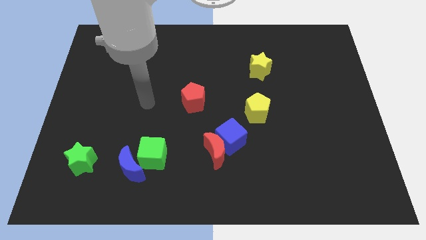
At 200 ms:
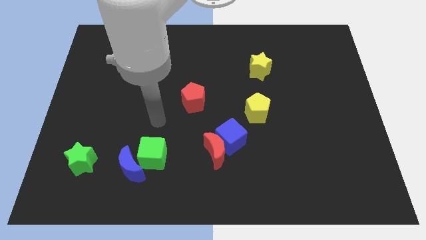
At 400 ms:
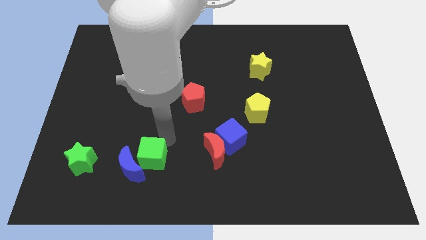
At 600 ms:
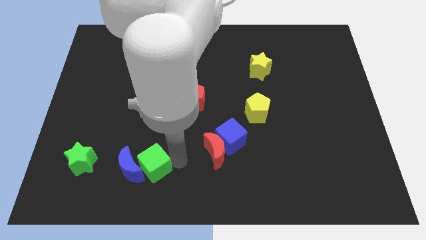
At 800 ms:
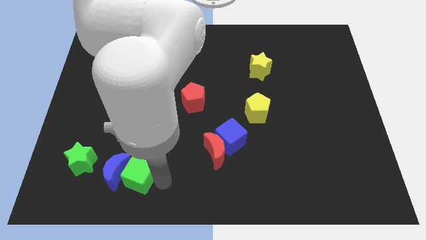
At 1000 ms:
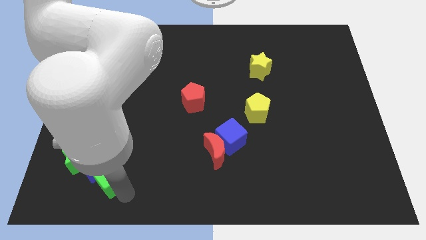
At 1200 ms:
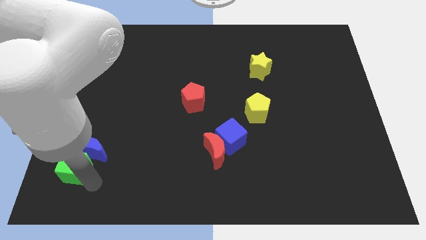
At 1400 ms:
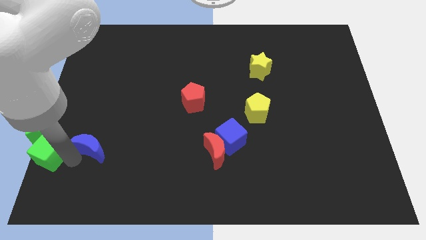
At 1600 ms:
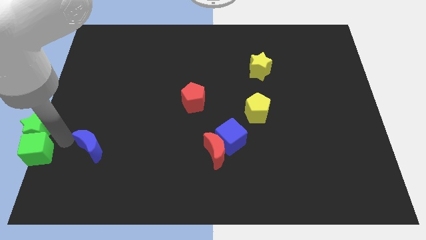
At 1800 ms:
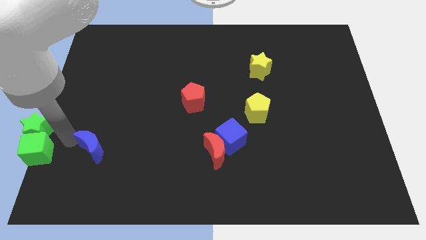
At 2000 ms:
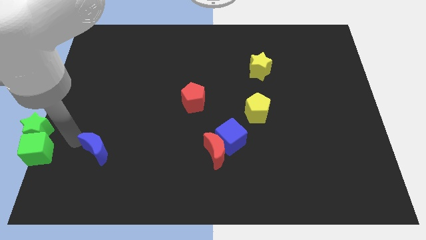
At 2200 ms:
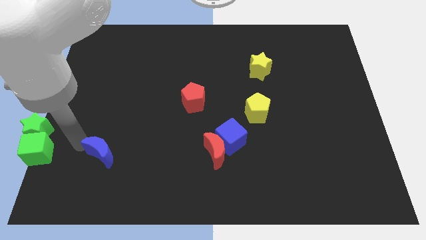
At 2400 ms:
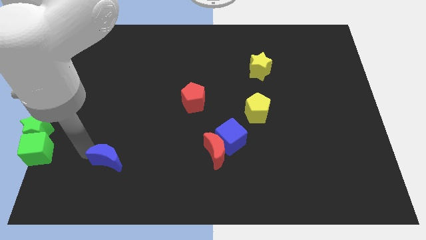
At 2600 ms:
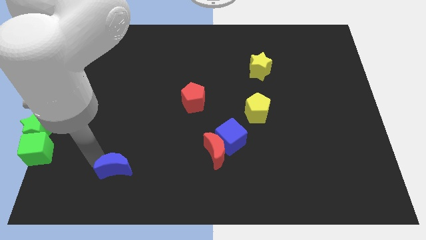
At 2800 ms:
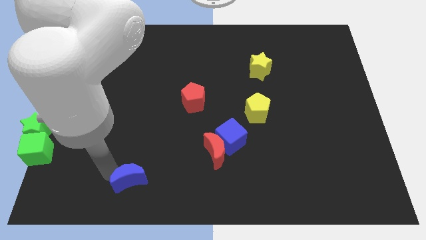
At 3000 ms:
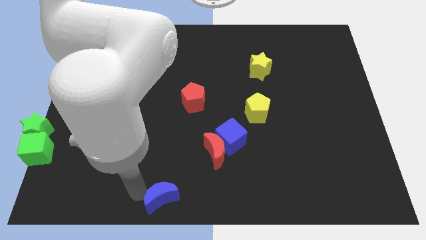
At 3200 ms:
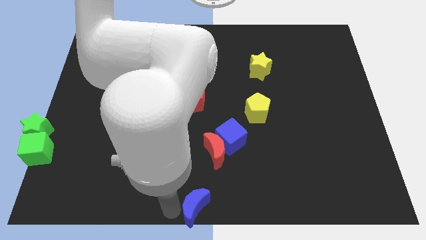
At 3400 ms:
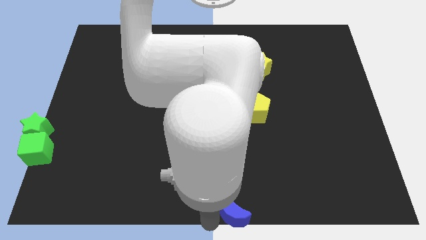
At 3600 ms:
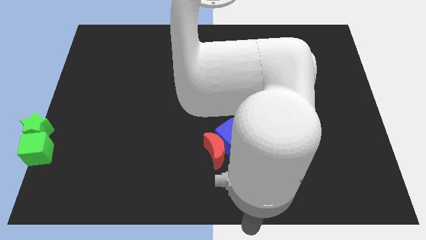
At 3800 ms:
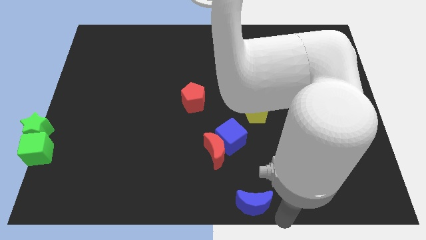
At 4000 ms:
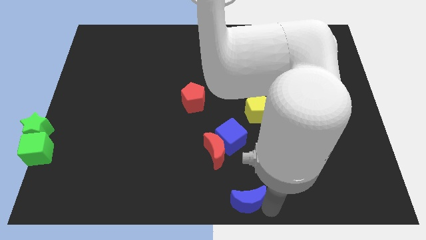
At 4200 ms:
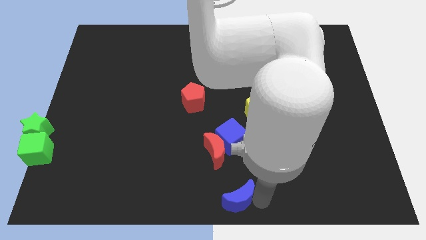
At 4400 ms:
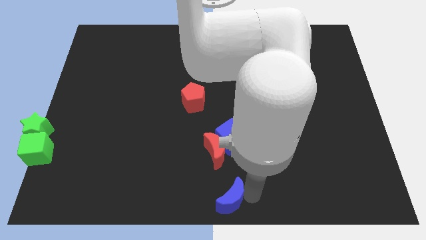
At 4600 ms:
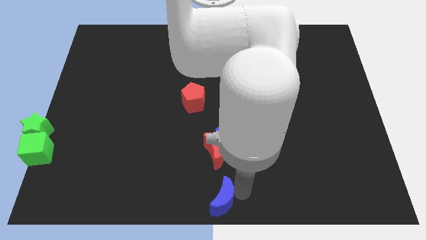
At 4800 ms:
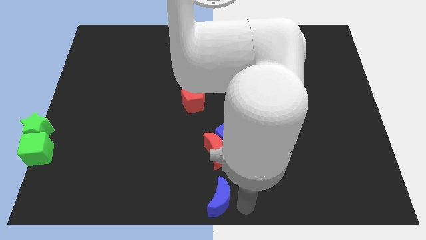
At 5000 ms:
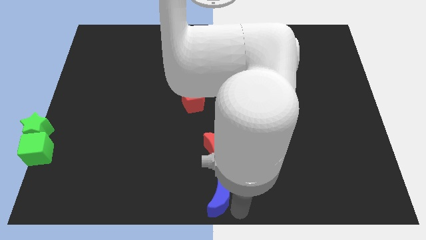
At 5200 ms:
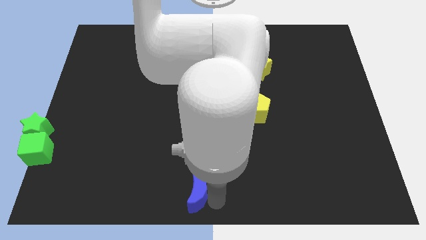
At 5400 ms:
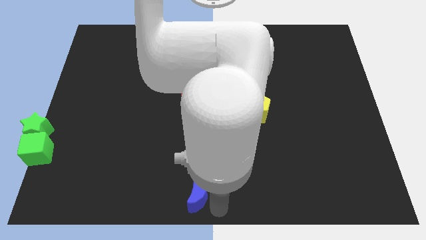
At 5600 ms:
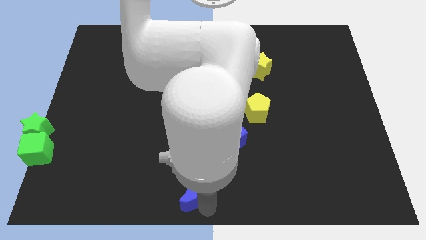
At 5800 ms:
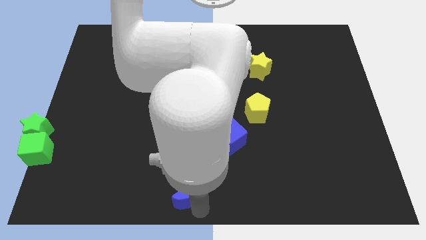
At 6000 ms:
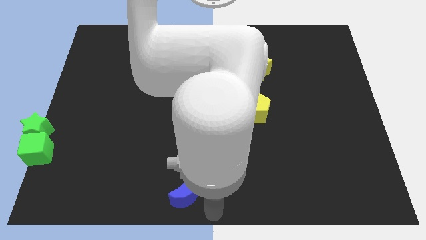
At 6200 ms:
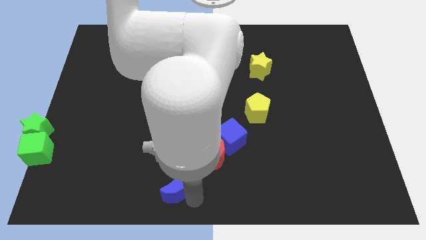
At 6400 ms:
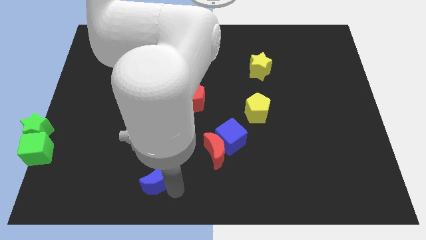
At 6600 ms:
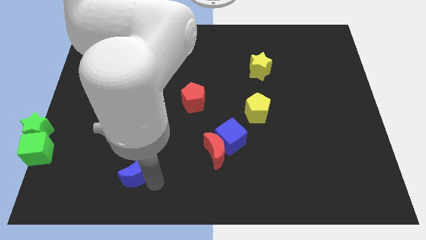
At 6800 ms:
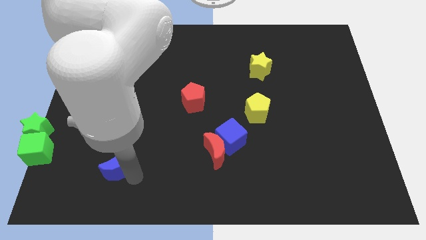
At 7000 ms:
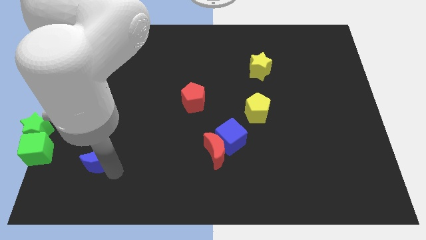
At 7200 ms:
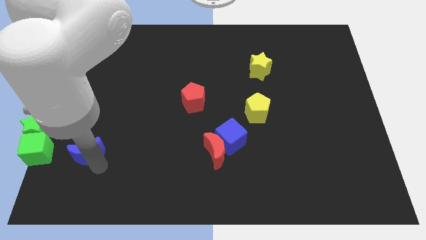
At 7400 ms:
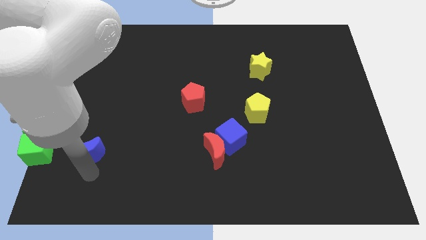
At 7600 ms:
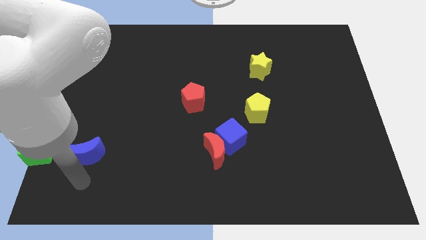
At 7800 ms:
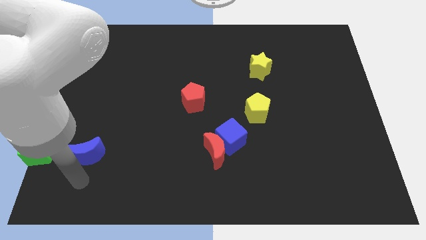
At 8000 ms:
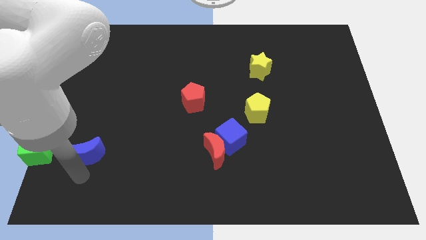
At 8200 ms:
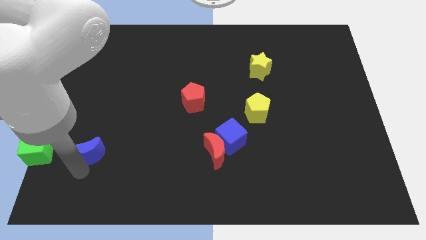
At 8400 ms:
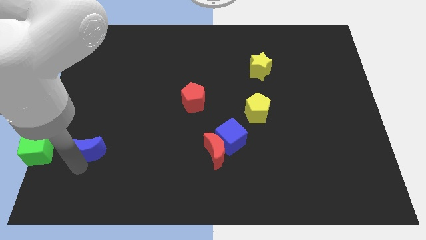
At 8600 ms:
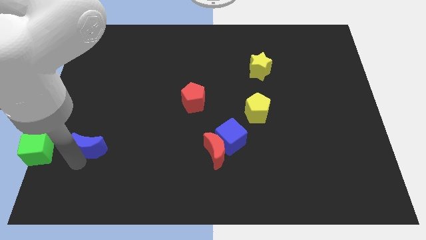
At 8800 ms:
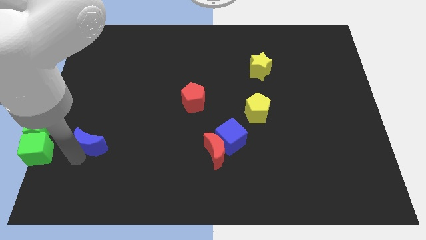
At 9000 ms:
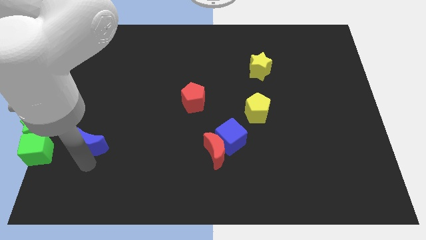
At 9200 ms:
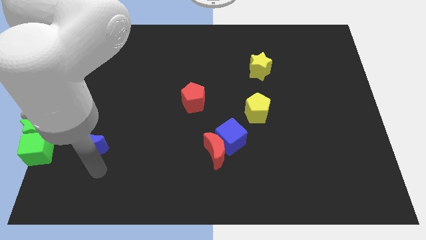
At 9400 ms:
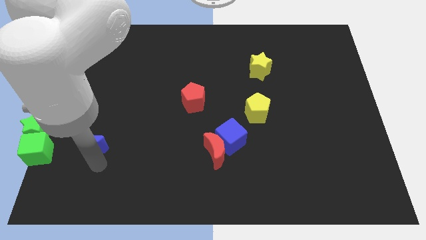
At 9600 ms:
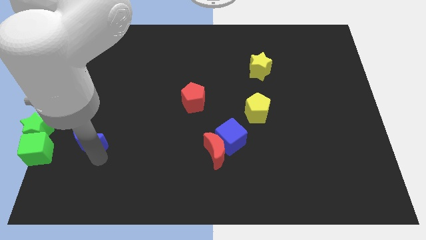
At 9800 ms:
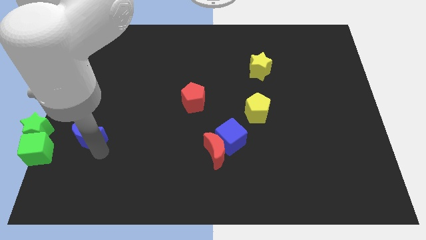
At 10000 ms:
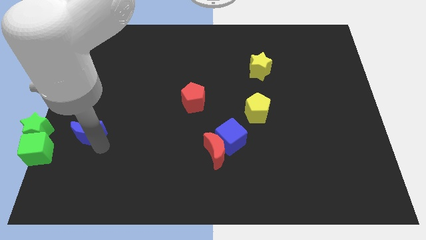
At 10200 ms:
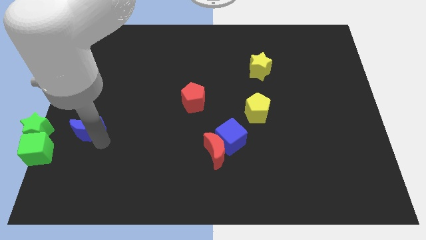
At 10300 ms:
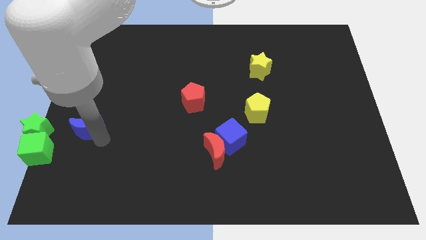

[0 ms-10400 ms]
move the blue moon to the left side

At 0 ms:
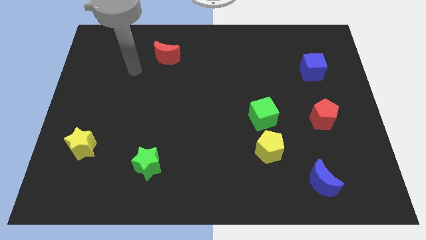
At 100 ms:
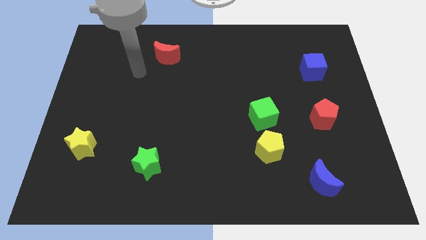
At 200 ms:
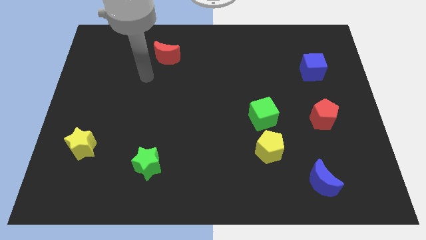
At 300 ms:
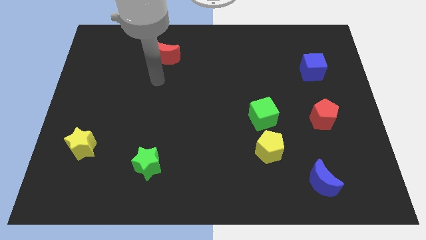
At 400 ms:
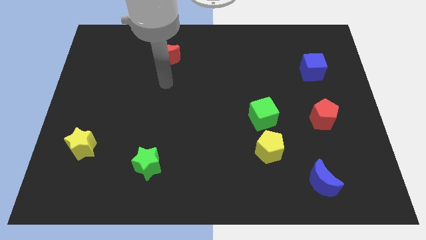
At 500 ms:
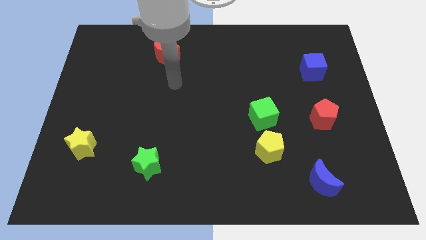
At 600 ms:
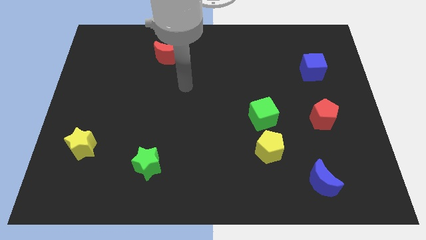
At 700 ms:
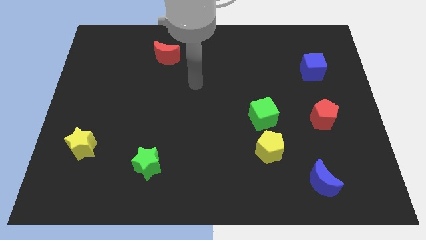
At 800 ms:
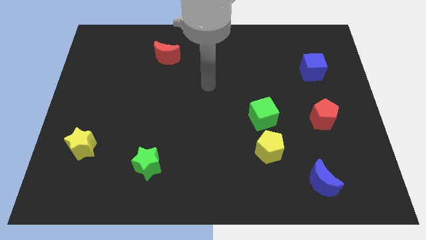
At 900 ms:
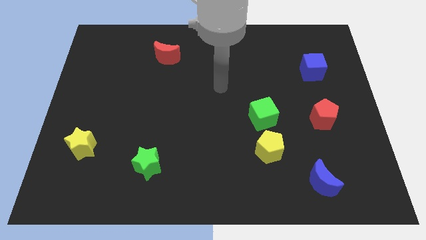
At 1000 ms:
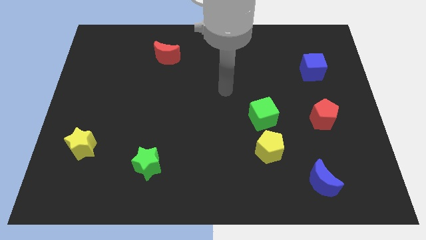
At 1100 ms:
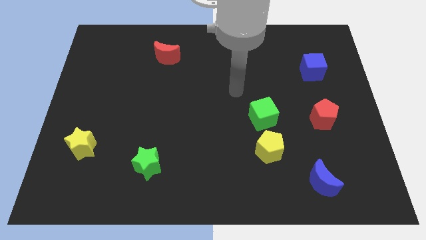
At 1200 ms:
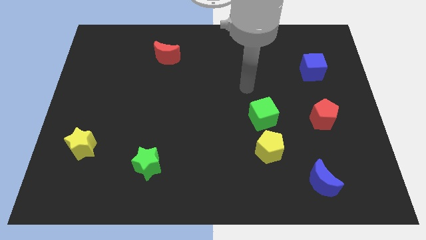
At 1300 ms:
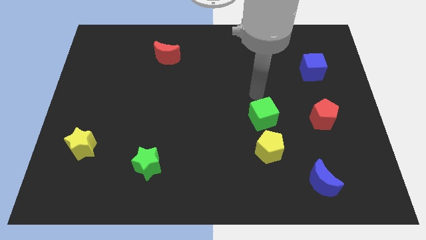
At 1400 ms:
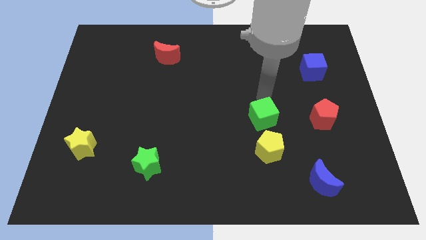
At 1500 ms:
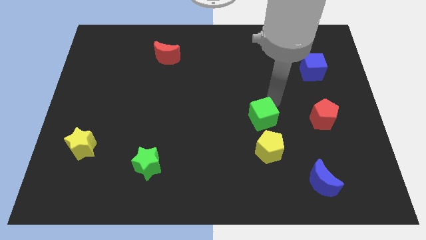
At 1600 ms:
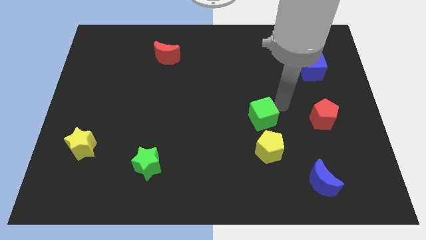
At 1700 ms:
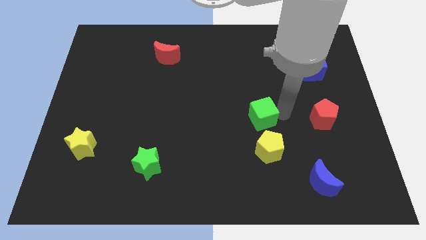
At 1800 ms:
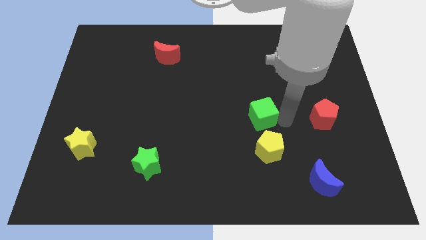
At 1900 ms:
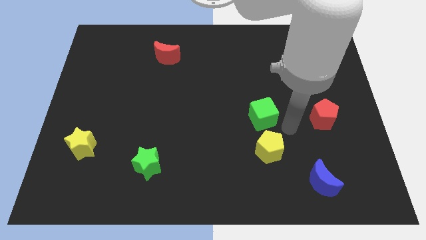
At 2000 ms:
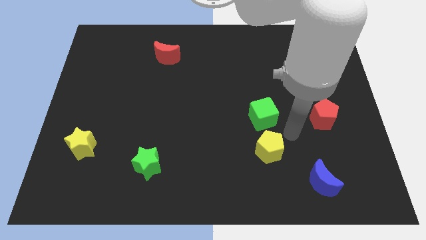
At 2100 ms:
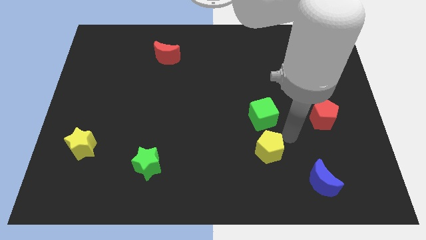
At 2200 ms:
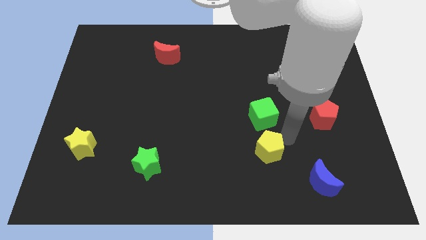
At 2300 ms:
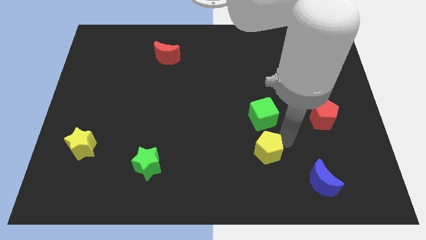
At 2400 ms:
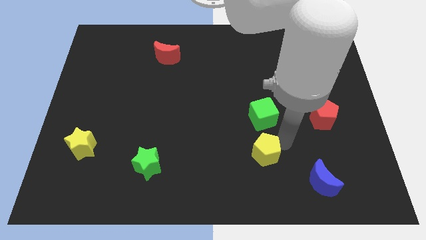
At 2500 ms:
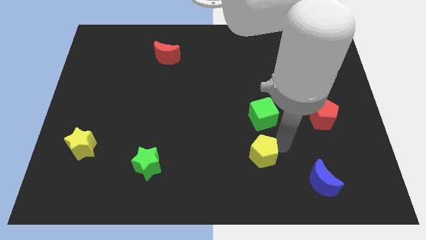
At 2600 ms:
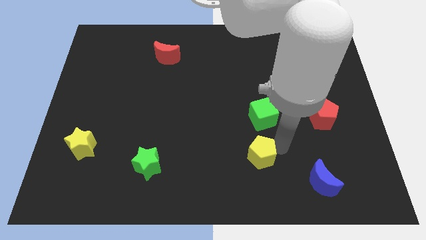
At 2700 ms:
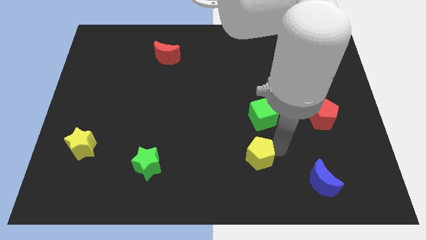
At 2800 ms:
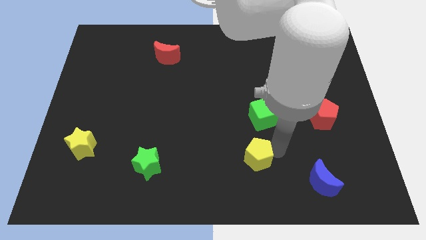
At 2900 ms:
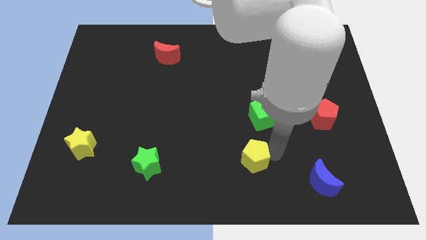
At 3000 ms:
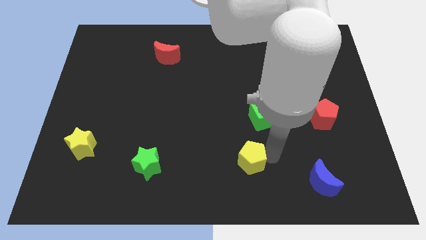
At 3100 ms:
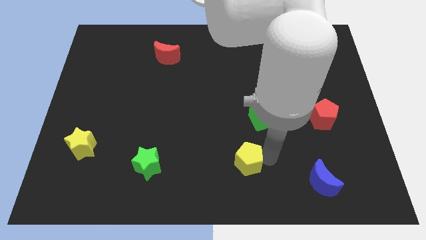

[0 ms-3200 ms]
push the yellow pentagon to the bottom
